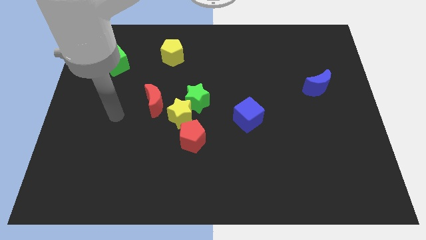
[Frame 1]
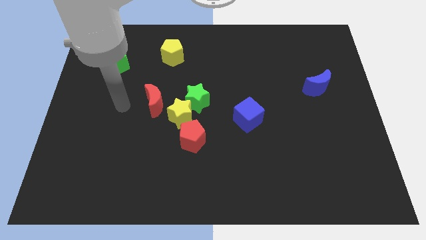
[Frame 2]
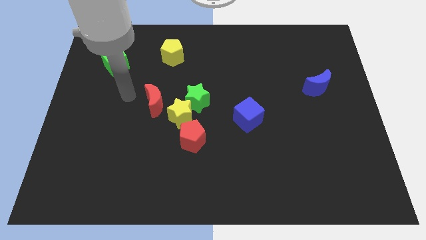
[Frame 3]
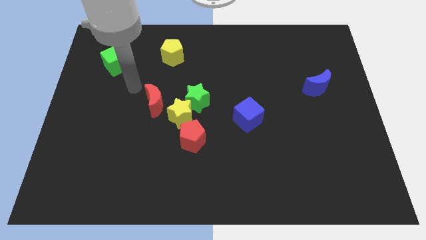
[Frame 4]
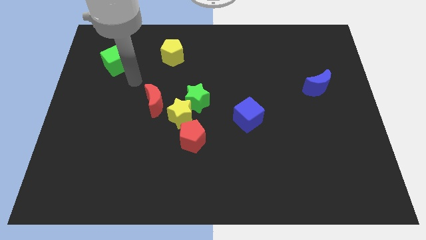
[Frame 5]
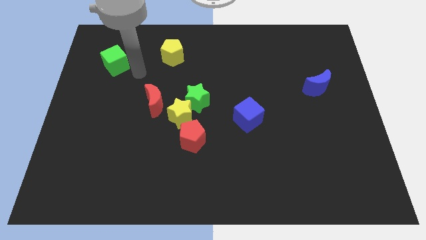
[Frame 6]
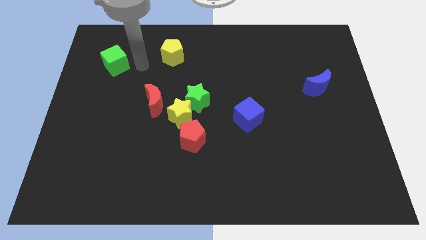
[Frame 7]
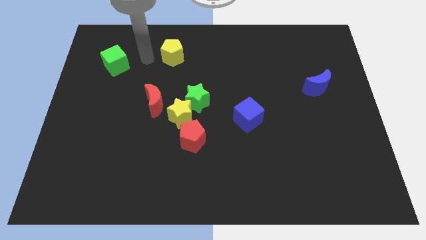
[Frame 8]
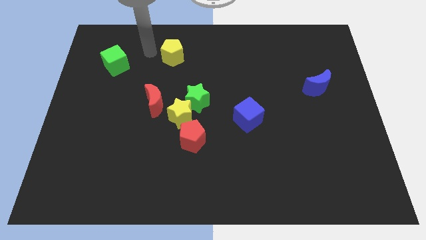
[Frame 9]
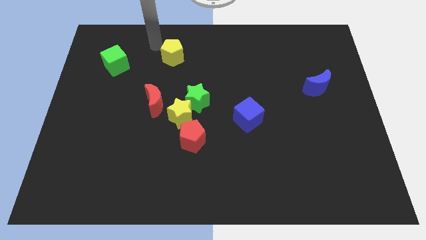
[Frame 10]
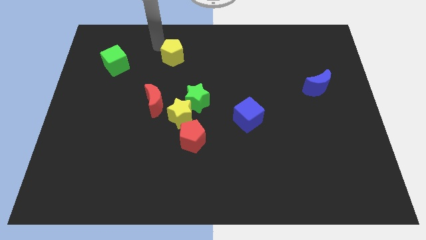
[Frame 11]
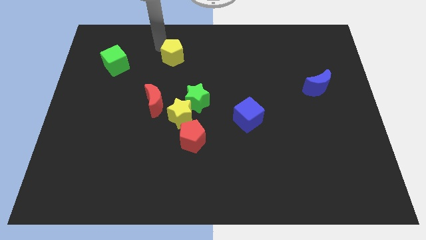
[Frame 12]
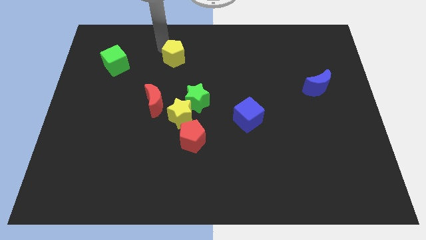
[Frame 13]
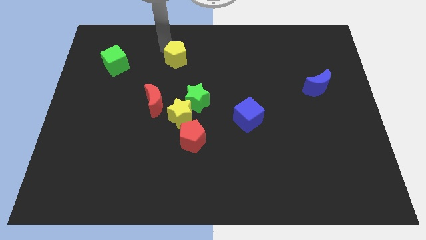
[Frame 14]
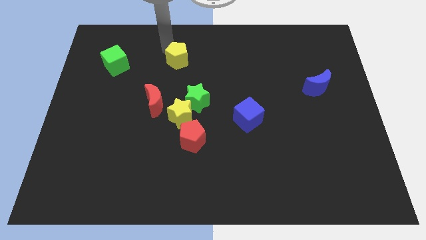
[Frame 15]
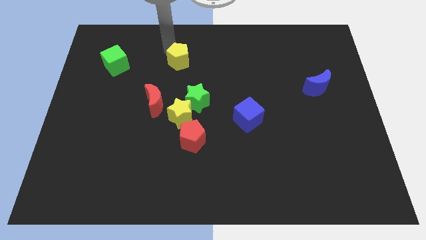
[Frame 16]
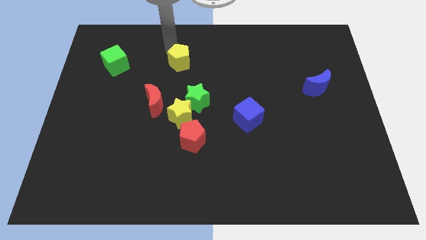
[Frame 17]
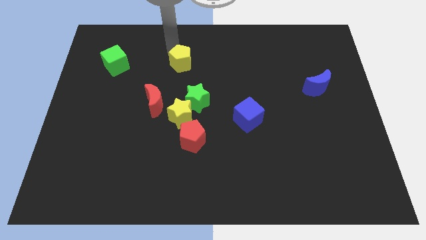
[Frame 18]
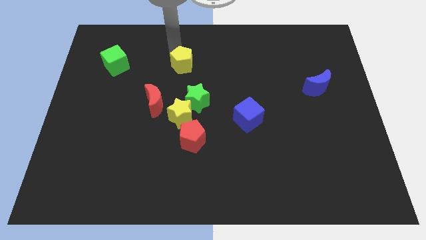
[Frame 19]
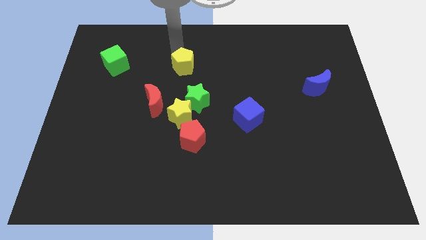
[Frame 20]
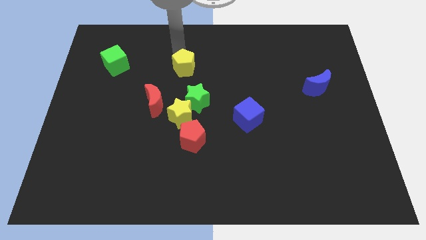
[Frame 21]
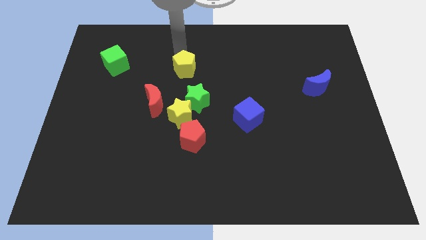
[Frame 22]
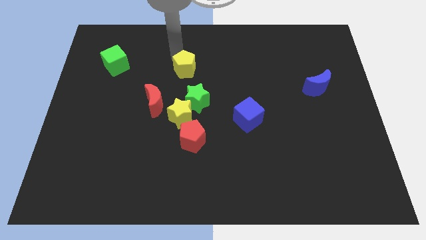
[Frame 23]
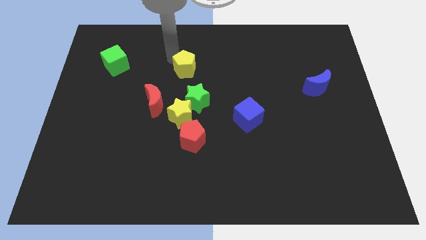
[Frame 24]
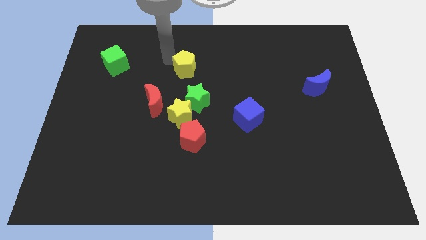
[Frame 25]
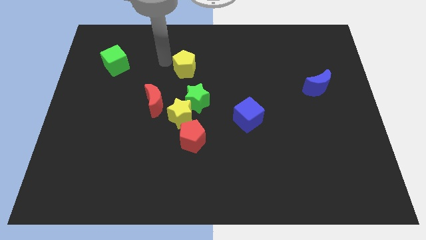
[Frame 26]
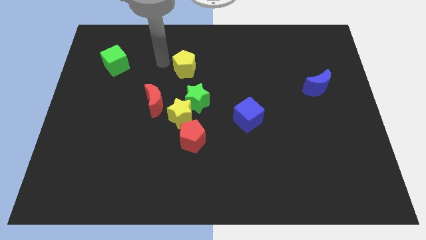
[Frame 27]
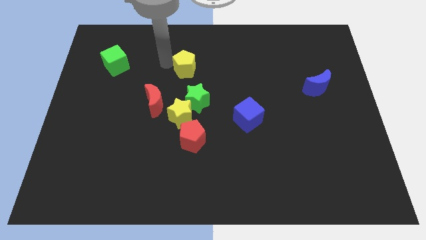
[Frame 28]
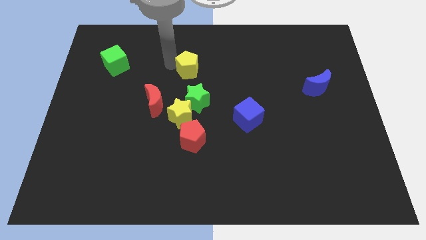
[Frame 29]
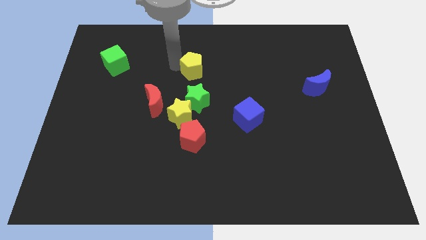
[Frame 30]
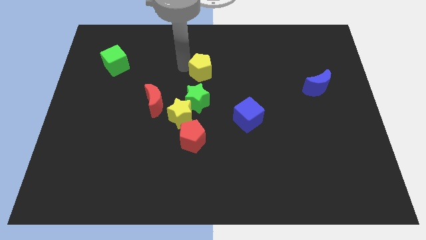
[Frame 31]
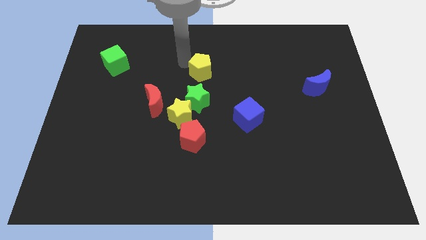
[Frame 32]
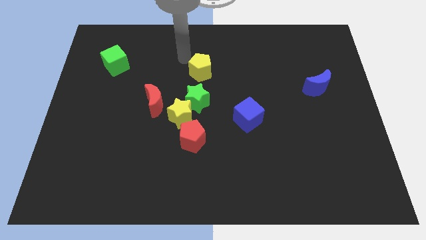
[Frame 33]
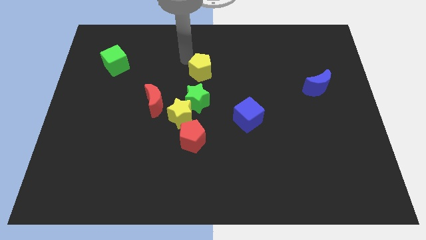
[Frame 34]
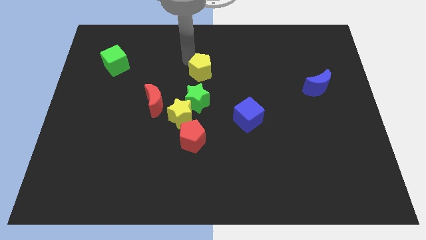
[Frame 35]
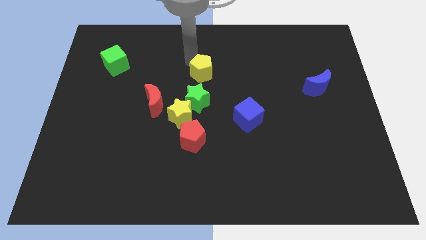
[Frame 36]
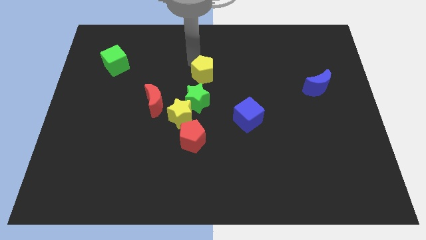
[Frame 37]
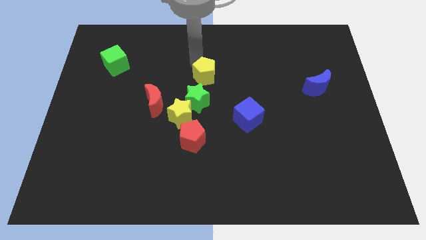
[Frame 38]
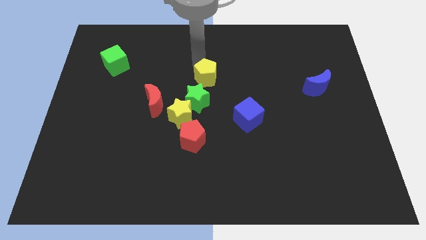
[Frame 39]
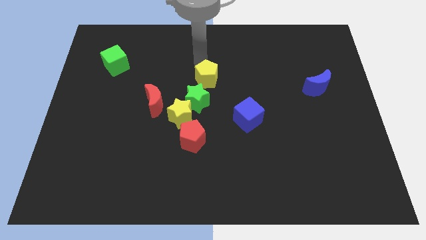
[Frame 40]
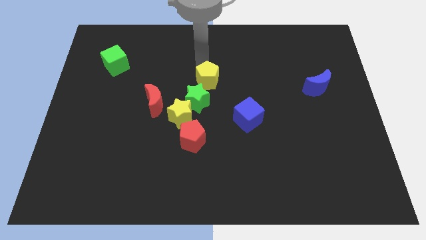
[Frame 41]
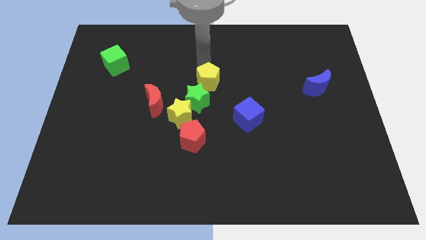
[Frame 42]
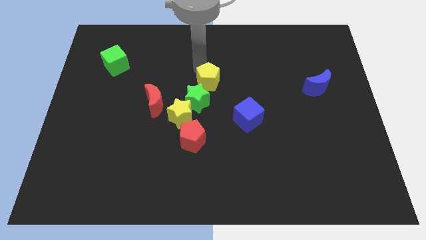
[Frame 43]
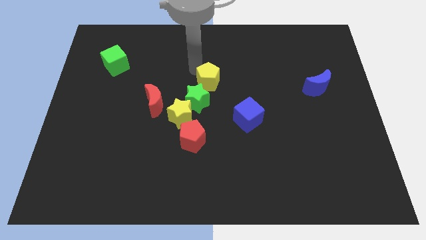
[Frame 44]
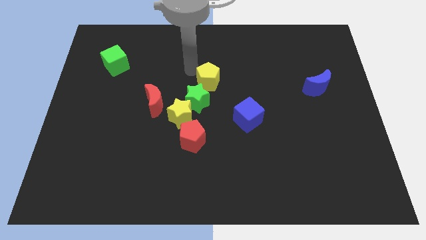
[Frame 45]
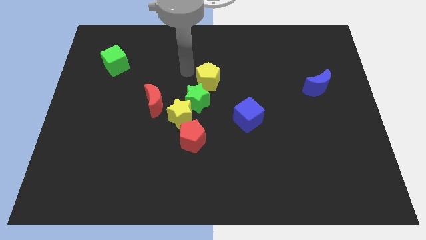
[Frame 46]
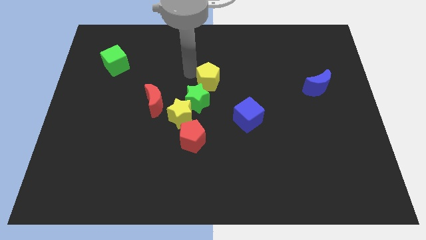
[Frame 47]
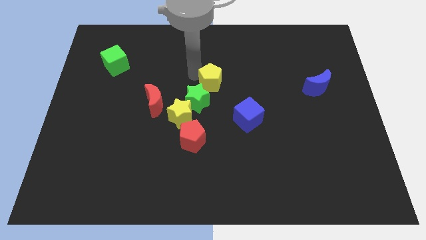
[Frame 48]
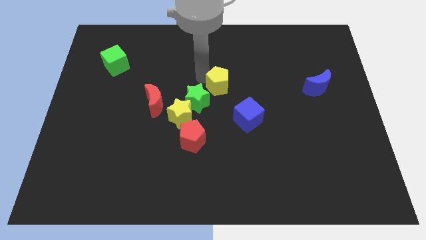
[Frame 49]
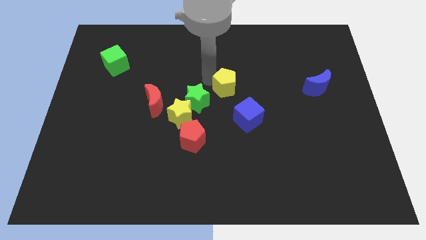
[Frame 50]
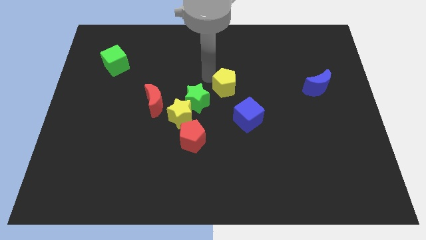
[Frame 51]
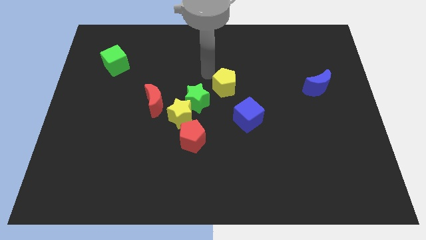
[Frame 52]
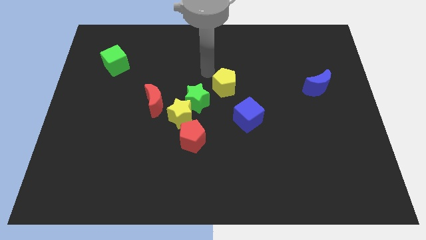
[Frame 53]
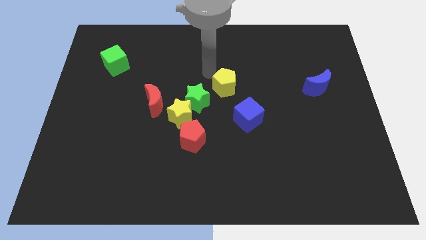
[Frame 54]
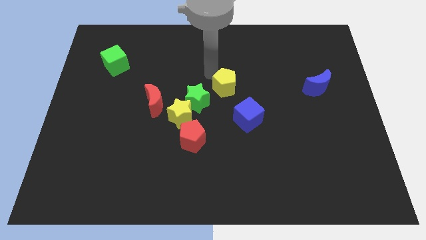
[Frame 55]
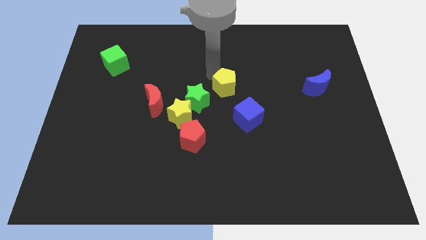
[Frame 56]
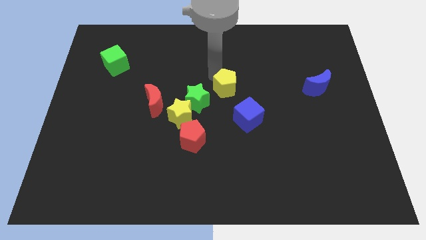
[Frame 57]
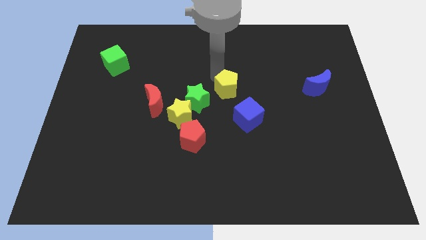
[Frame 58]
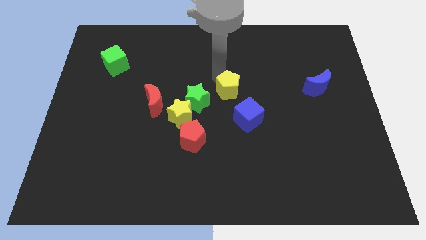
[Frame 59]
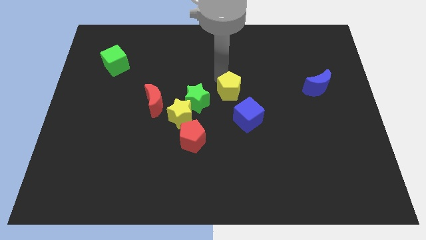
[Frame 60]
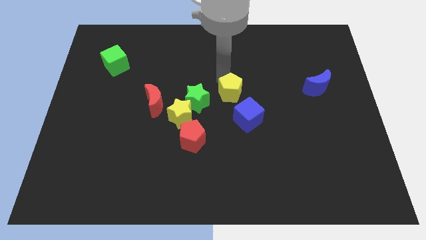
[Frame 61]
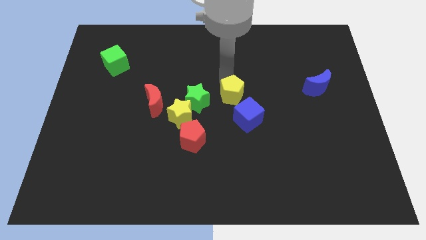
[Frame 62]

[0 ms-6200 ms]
move the yellow pentagon down and to the right diagonally

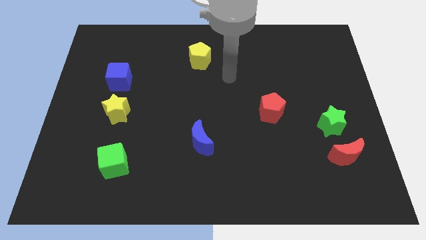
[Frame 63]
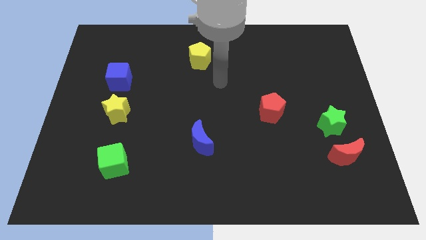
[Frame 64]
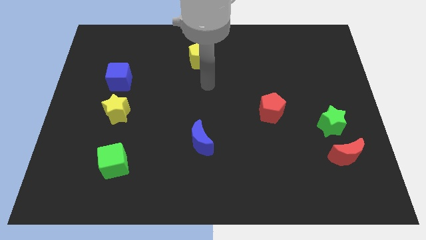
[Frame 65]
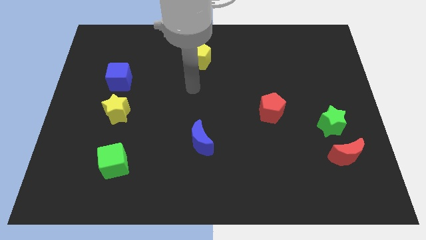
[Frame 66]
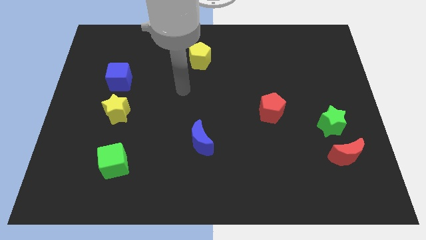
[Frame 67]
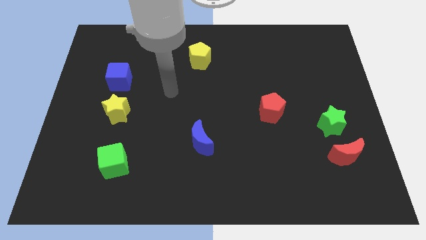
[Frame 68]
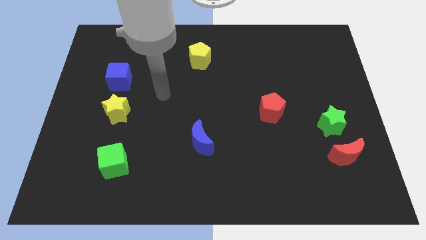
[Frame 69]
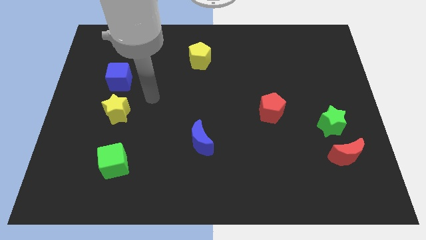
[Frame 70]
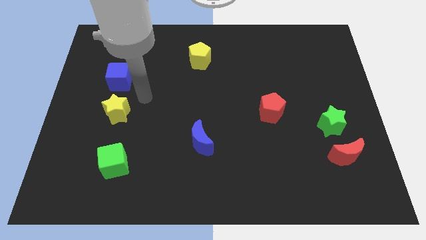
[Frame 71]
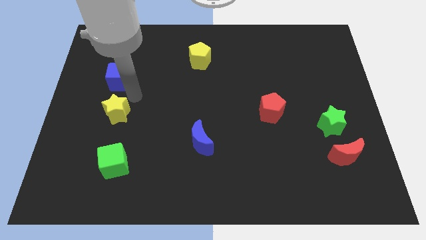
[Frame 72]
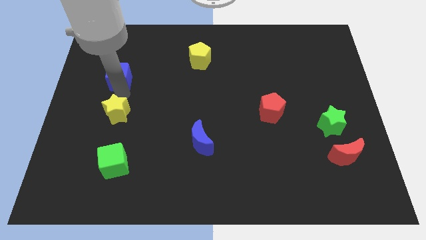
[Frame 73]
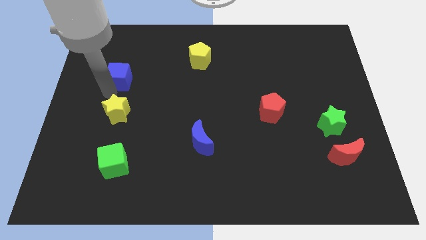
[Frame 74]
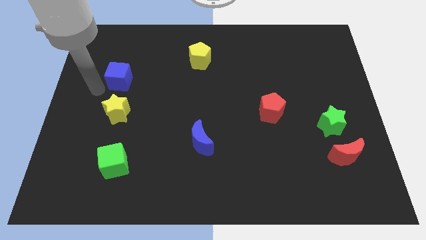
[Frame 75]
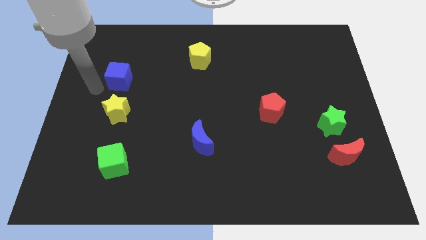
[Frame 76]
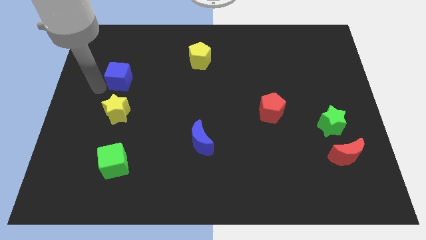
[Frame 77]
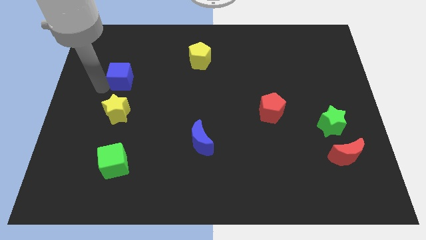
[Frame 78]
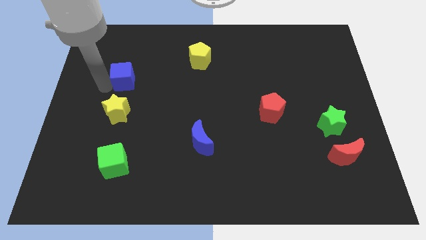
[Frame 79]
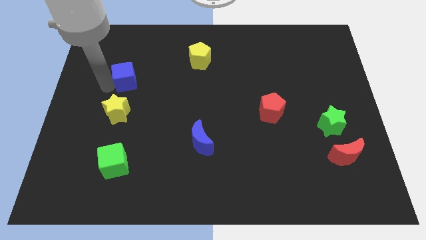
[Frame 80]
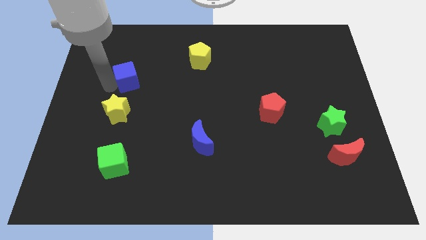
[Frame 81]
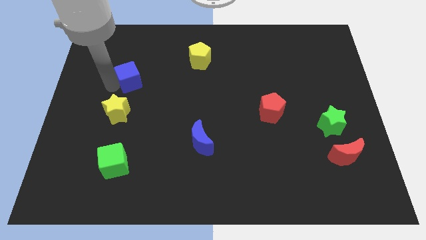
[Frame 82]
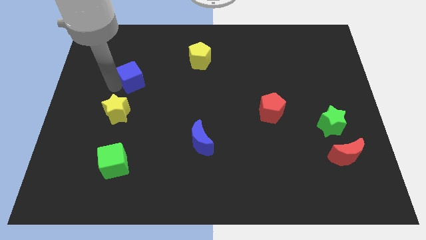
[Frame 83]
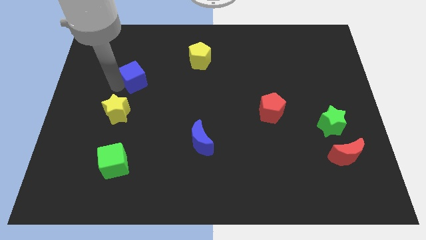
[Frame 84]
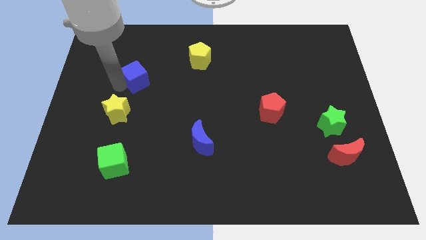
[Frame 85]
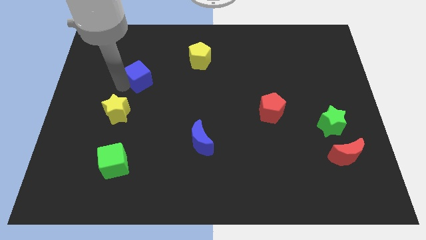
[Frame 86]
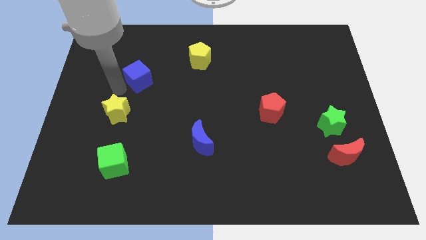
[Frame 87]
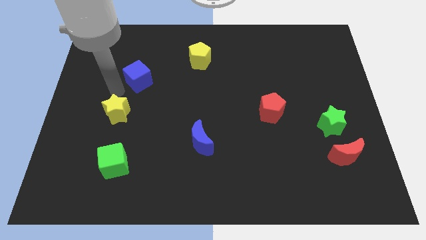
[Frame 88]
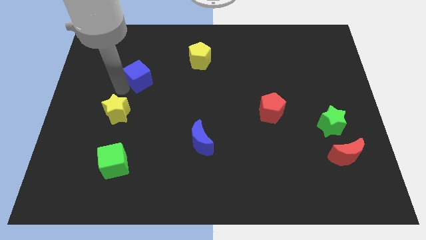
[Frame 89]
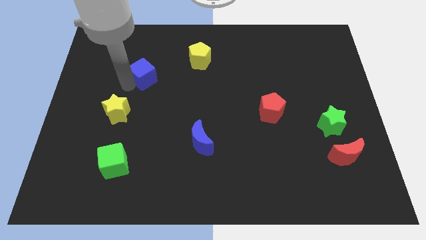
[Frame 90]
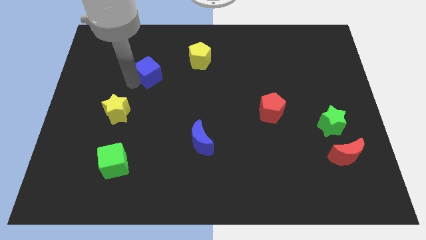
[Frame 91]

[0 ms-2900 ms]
slide the blue cube a little right
